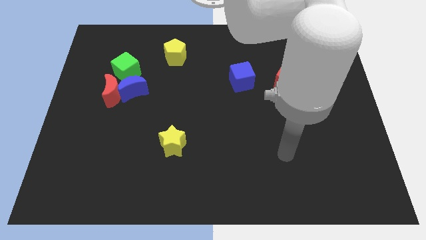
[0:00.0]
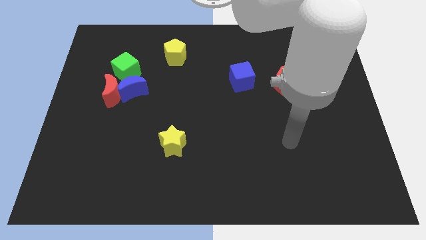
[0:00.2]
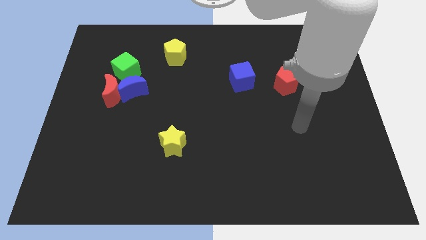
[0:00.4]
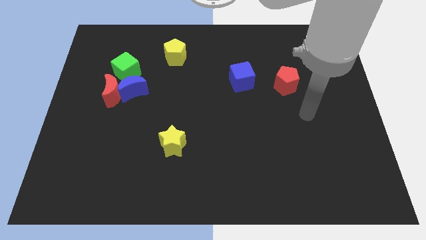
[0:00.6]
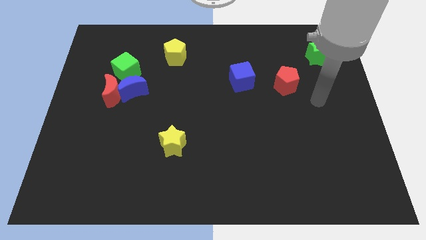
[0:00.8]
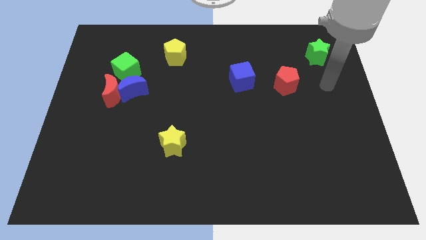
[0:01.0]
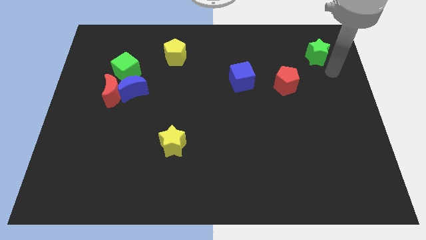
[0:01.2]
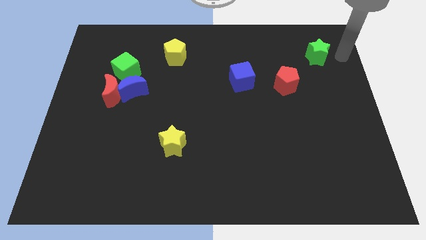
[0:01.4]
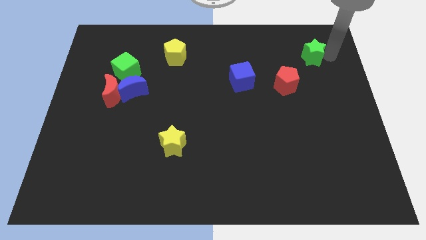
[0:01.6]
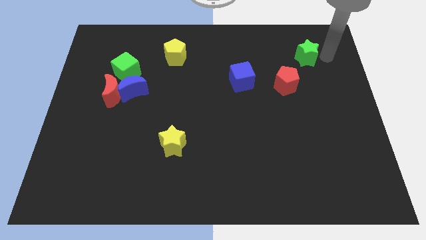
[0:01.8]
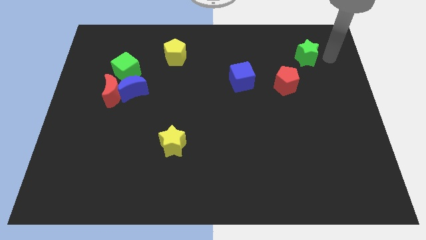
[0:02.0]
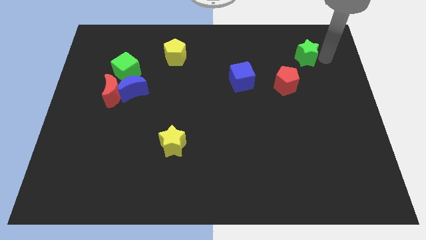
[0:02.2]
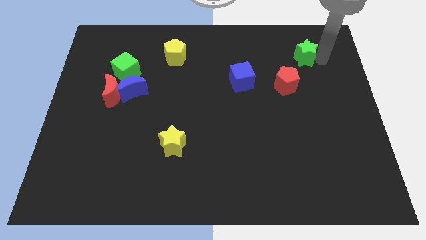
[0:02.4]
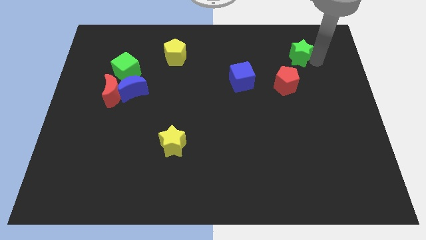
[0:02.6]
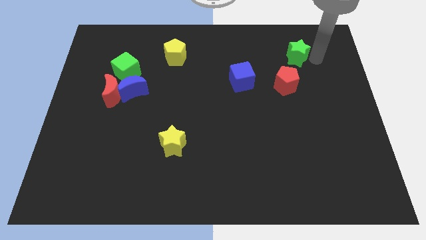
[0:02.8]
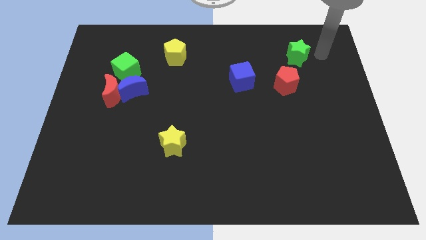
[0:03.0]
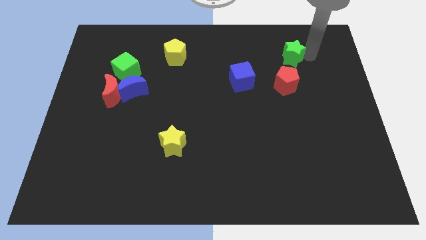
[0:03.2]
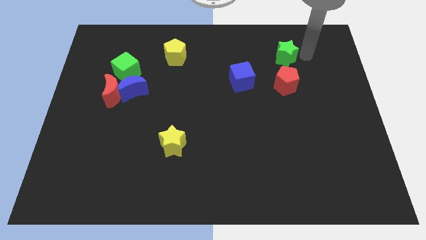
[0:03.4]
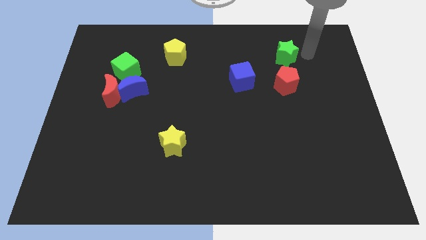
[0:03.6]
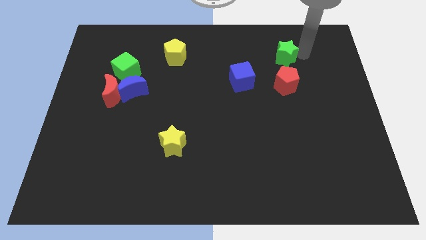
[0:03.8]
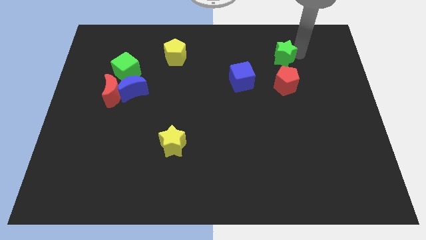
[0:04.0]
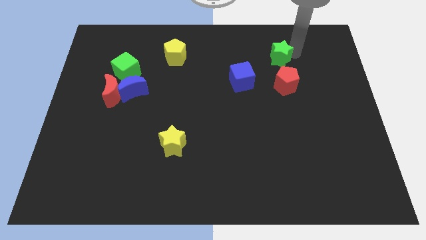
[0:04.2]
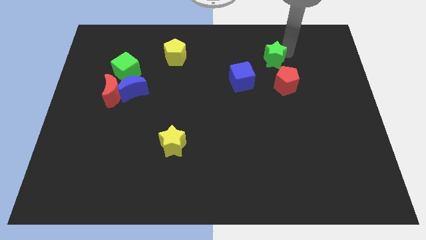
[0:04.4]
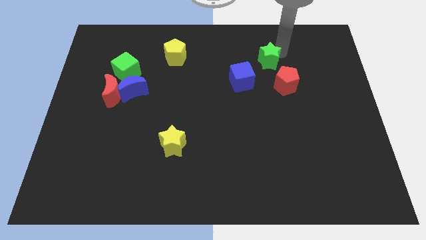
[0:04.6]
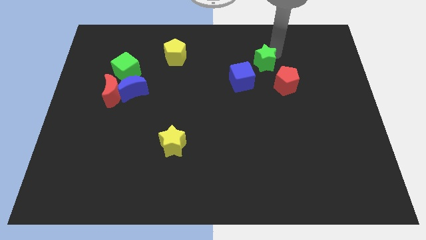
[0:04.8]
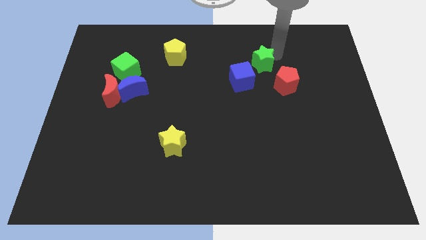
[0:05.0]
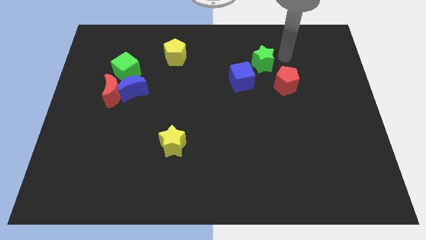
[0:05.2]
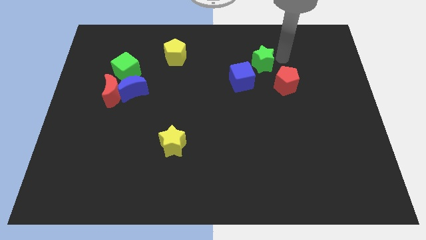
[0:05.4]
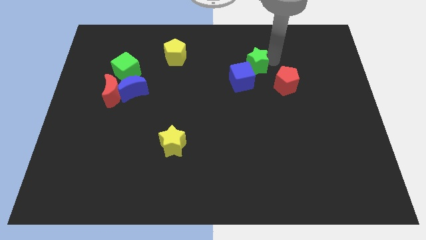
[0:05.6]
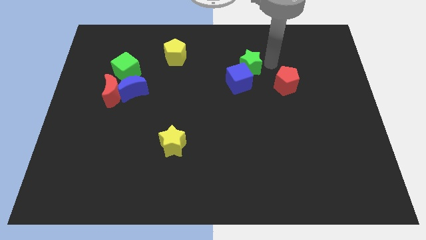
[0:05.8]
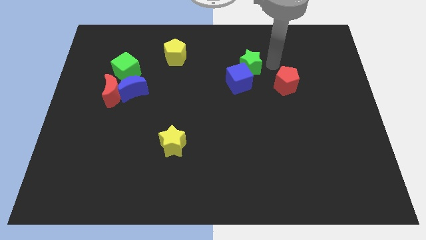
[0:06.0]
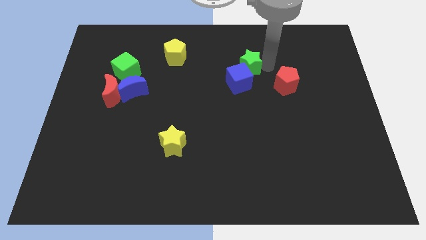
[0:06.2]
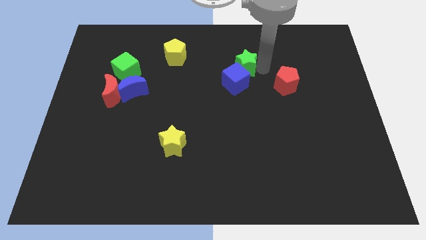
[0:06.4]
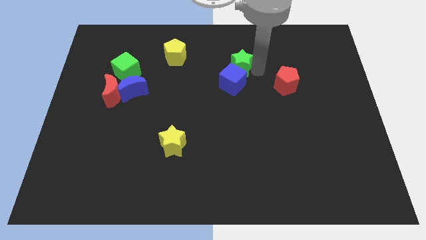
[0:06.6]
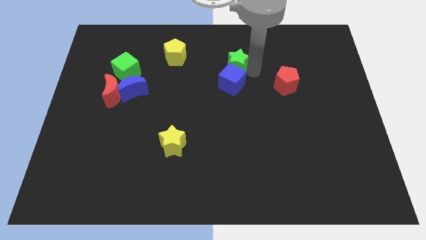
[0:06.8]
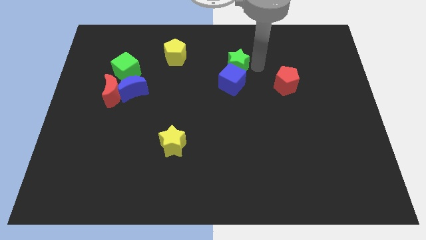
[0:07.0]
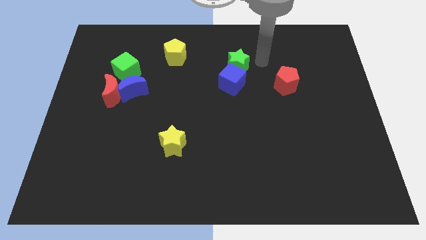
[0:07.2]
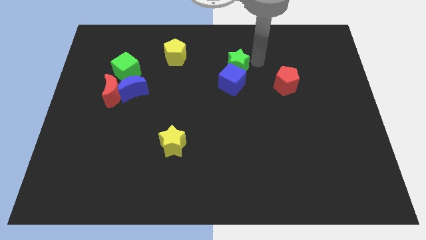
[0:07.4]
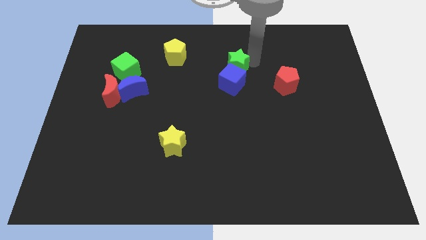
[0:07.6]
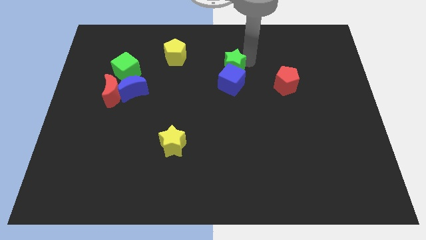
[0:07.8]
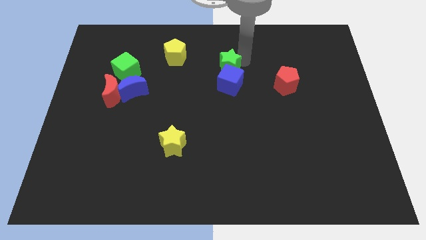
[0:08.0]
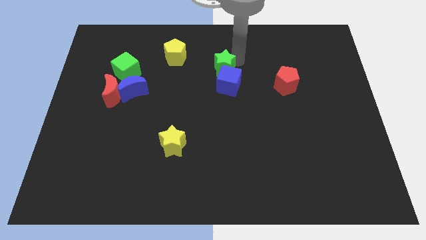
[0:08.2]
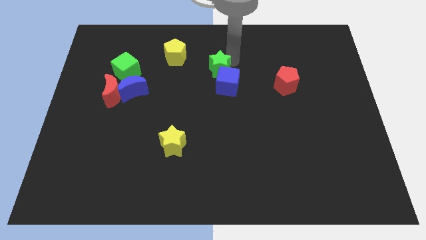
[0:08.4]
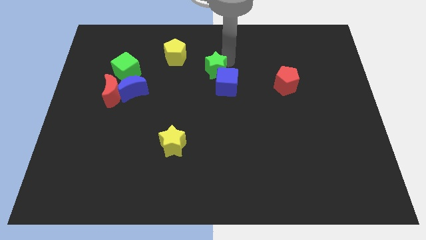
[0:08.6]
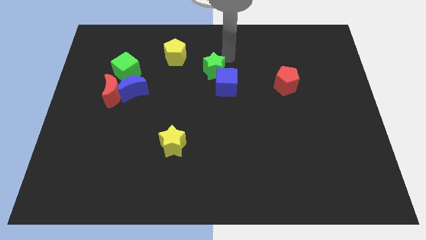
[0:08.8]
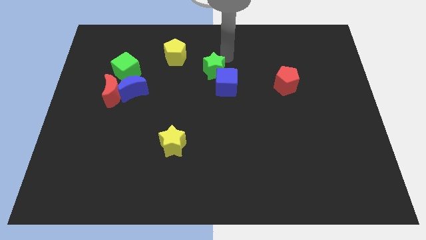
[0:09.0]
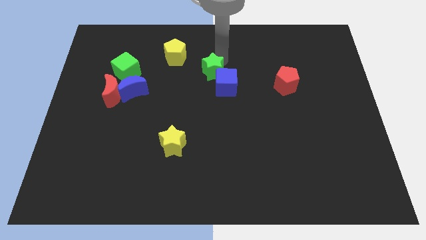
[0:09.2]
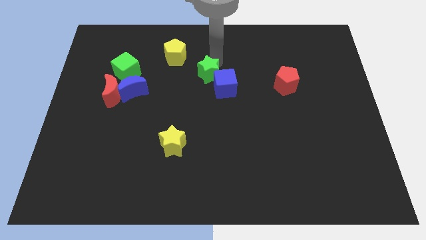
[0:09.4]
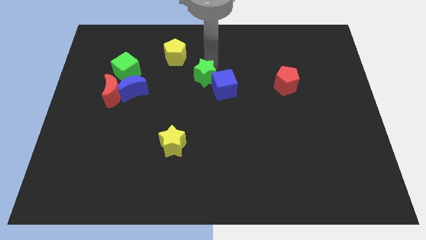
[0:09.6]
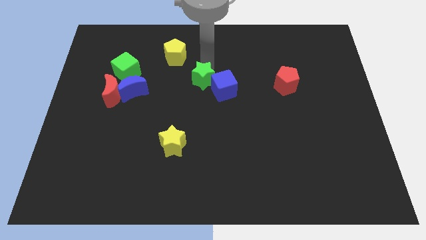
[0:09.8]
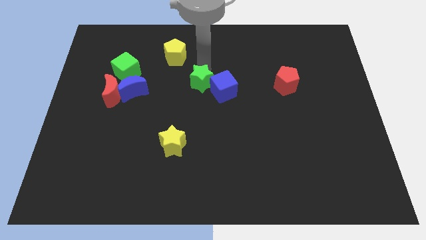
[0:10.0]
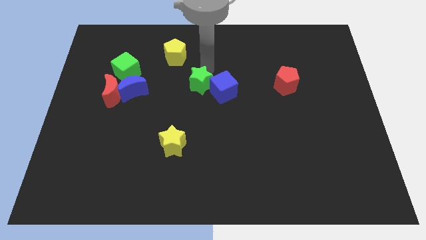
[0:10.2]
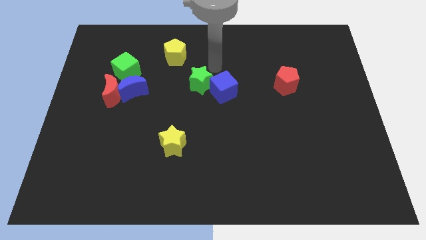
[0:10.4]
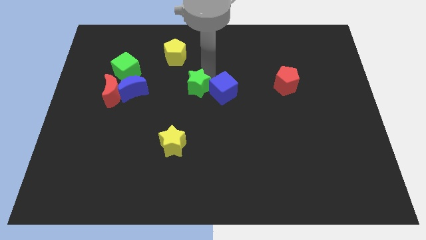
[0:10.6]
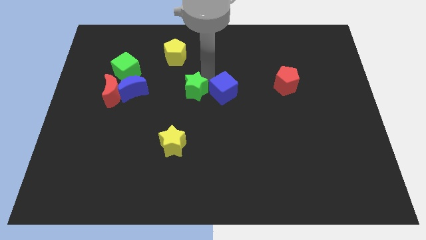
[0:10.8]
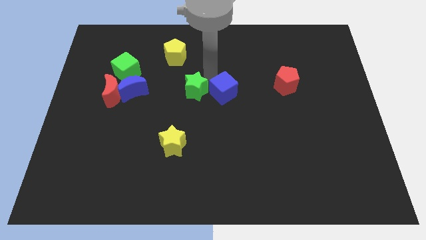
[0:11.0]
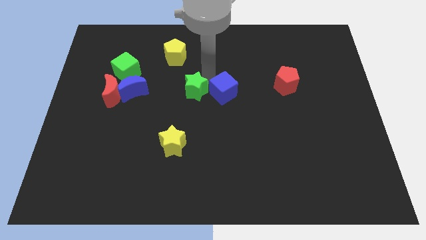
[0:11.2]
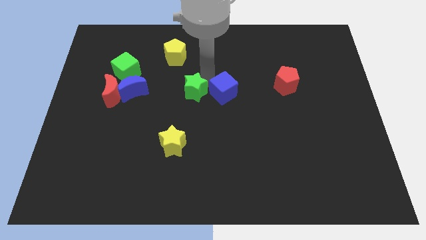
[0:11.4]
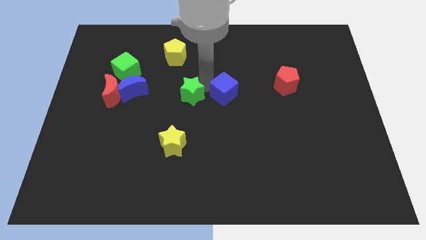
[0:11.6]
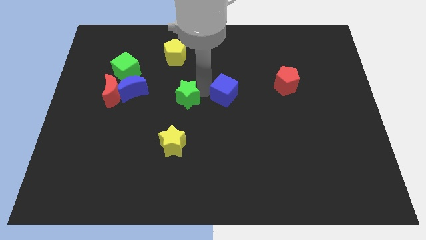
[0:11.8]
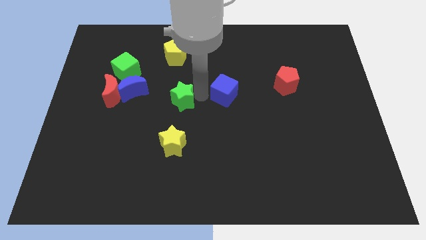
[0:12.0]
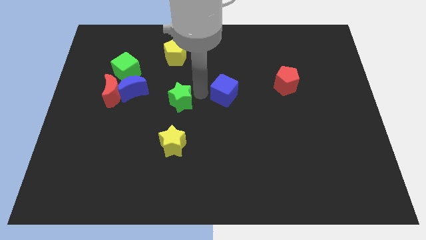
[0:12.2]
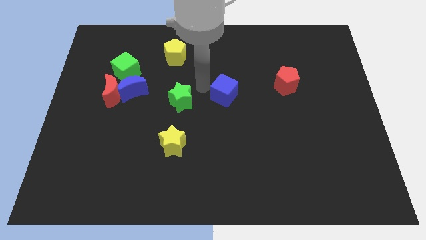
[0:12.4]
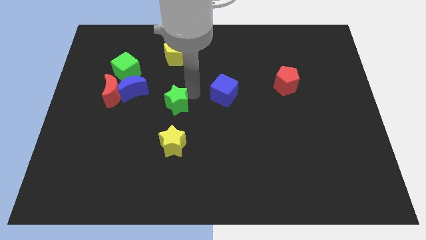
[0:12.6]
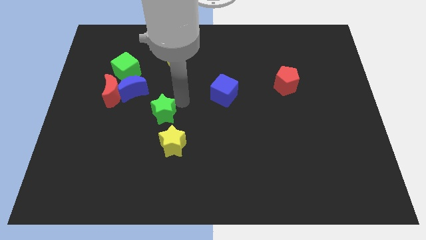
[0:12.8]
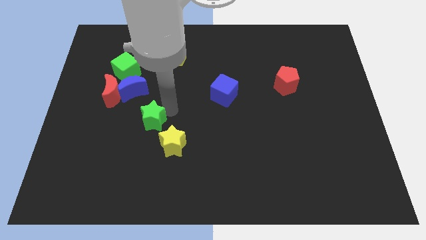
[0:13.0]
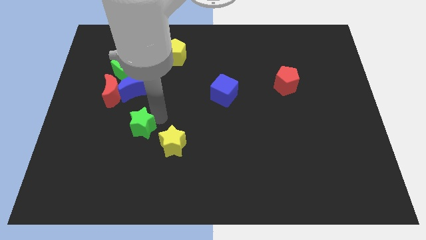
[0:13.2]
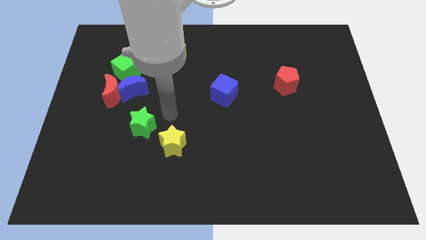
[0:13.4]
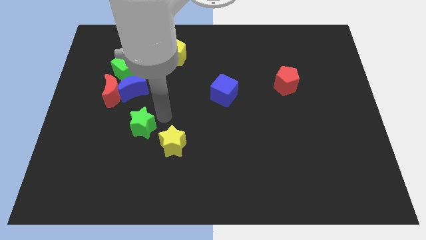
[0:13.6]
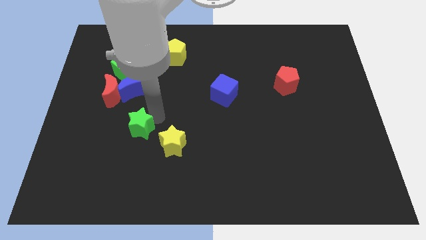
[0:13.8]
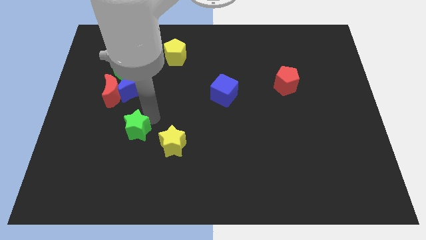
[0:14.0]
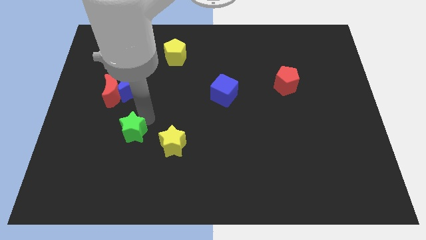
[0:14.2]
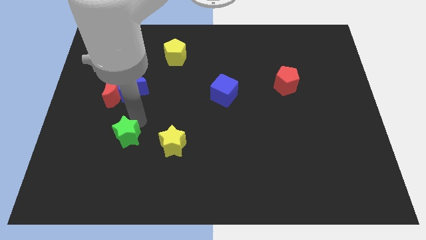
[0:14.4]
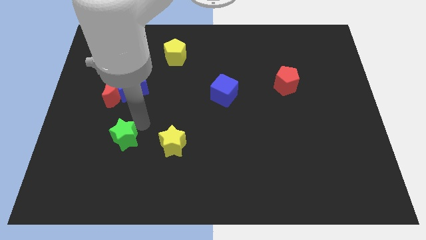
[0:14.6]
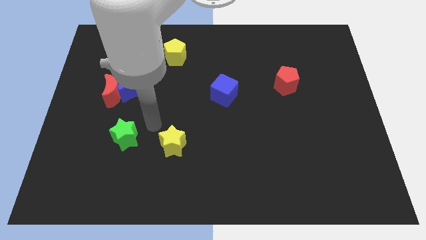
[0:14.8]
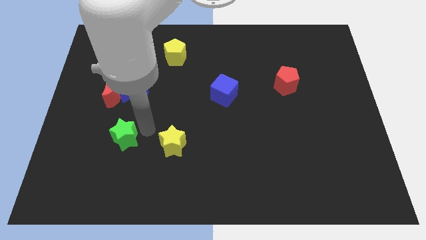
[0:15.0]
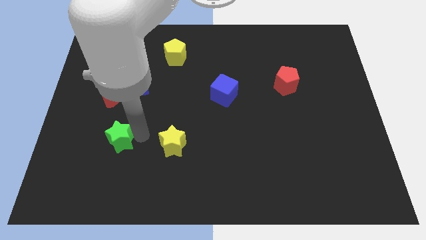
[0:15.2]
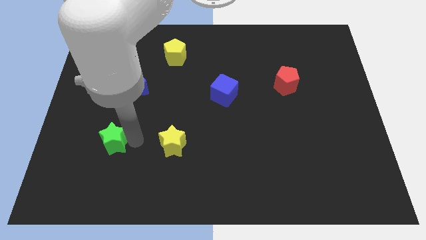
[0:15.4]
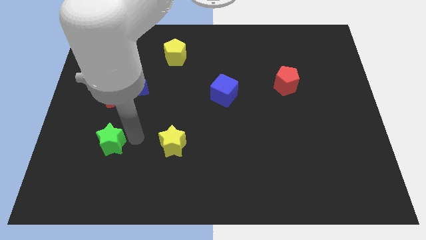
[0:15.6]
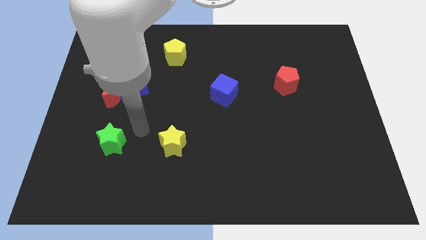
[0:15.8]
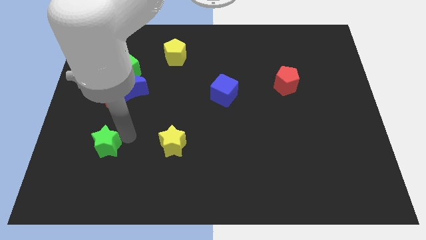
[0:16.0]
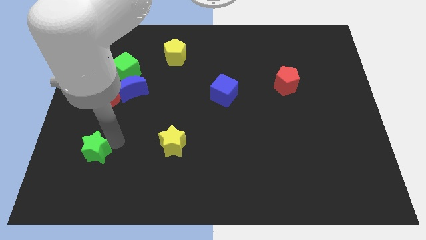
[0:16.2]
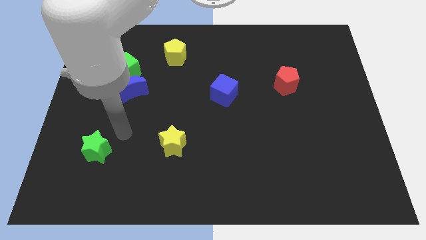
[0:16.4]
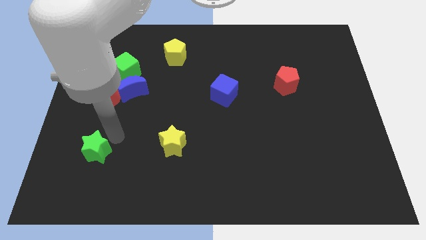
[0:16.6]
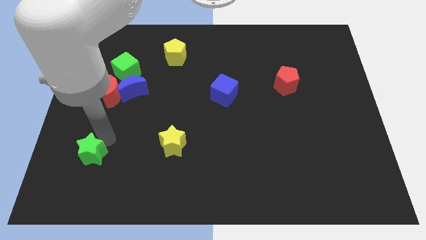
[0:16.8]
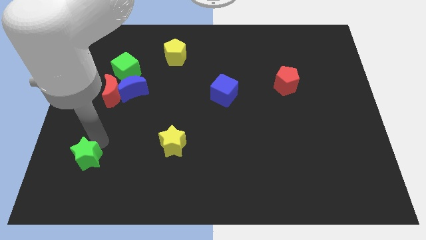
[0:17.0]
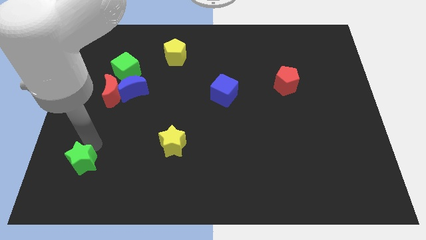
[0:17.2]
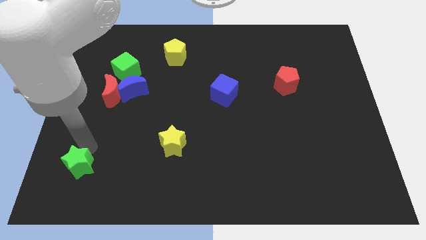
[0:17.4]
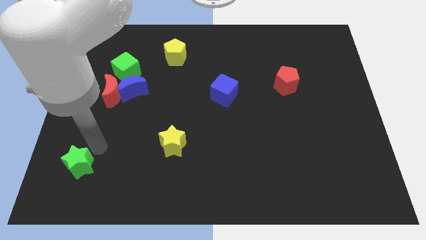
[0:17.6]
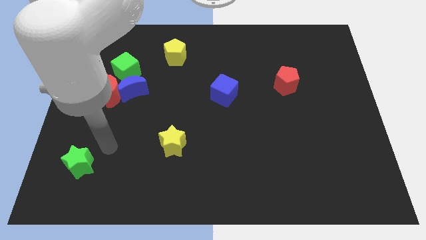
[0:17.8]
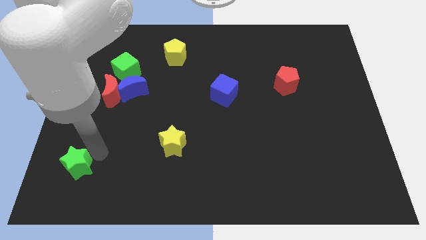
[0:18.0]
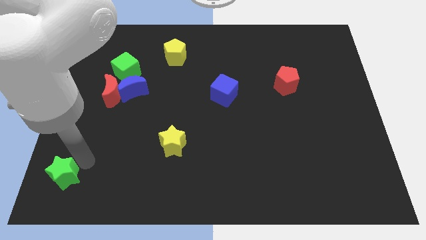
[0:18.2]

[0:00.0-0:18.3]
put the green star to the bottom left
